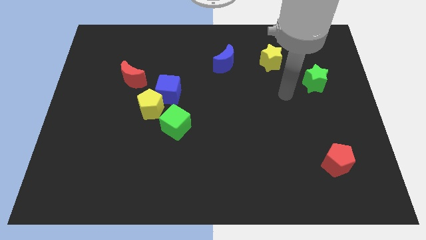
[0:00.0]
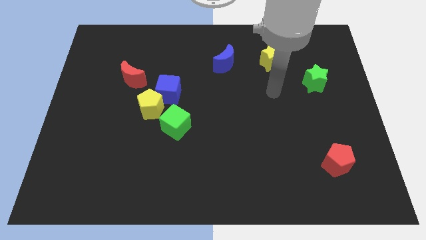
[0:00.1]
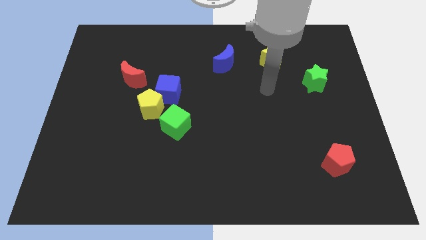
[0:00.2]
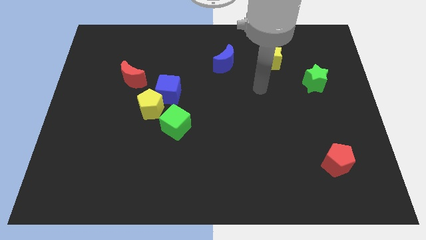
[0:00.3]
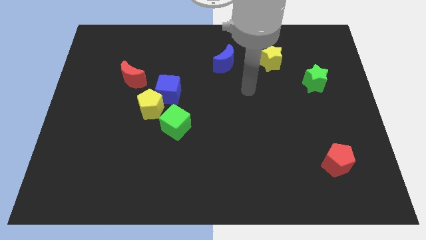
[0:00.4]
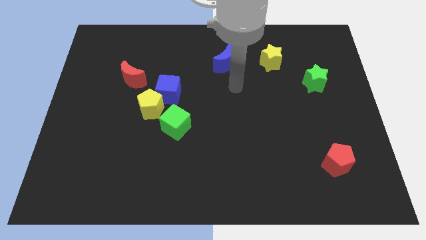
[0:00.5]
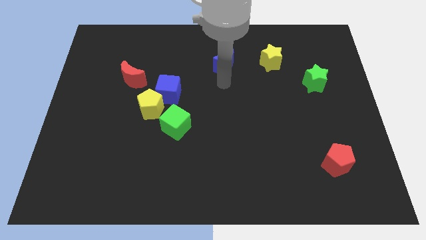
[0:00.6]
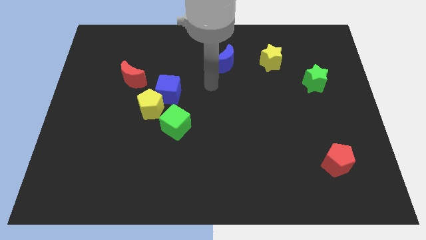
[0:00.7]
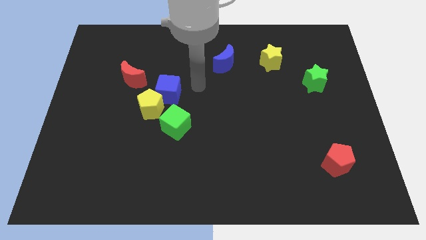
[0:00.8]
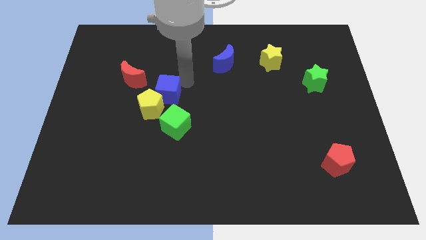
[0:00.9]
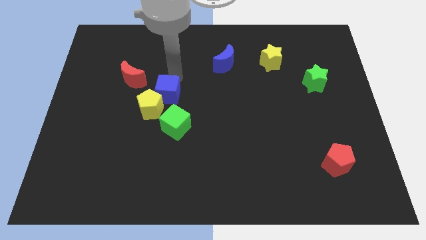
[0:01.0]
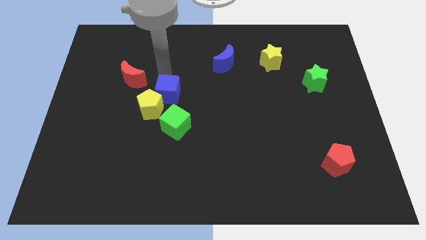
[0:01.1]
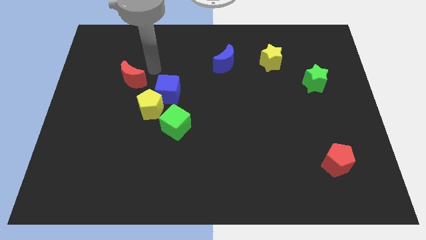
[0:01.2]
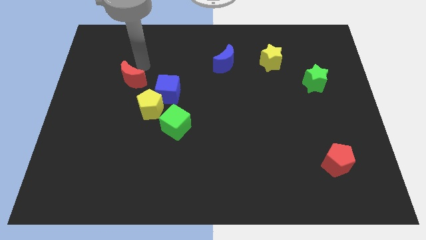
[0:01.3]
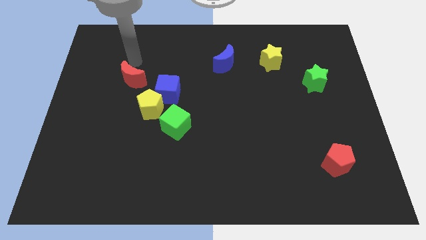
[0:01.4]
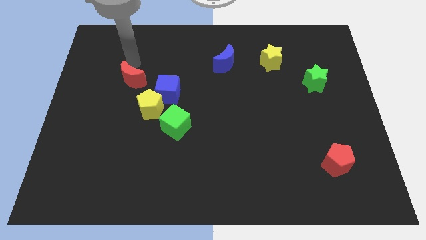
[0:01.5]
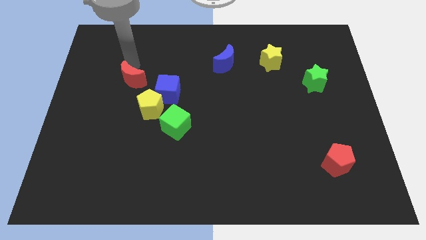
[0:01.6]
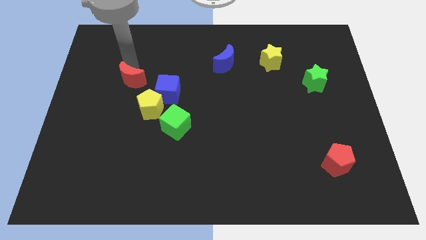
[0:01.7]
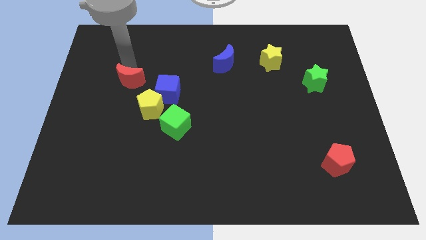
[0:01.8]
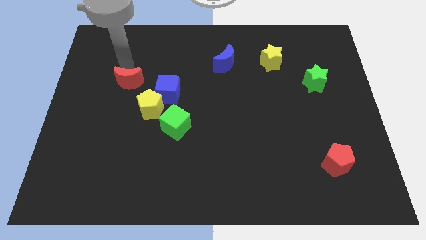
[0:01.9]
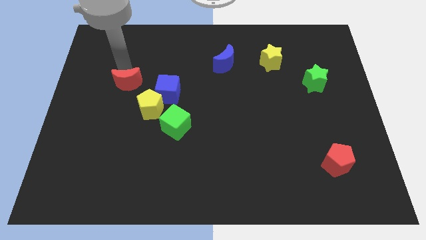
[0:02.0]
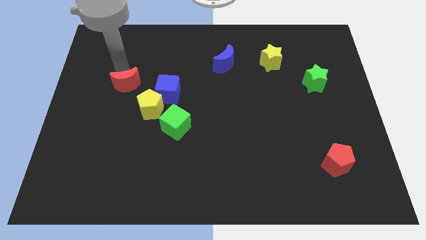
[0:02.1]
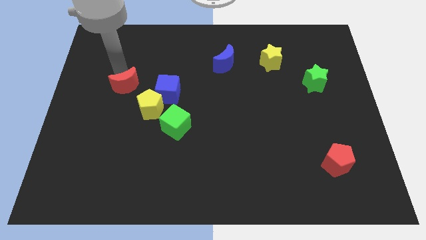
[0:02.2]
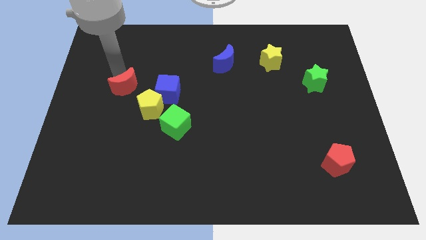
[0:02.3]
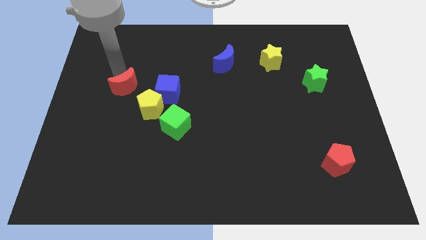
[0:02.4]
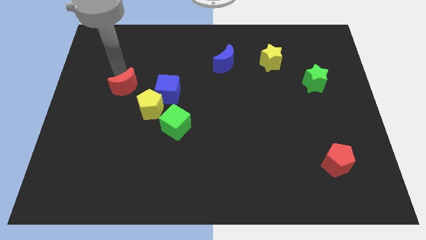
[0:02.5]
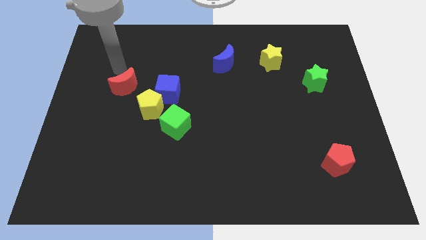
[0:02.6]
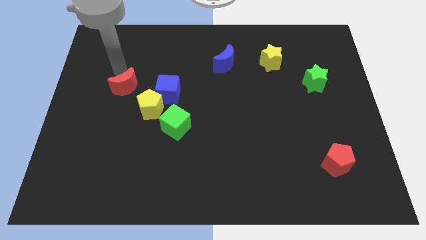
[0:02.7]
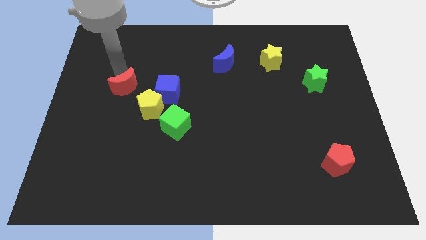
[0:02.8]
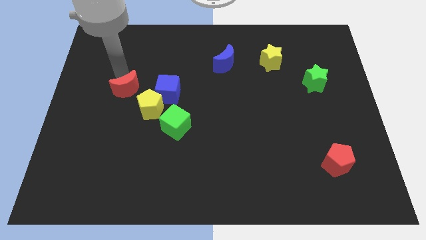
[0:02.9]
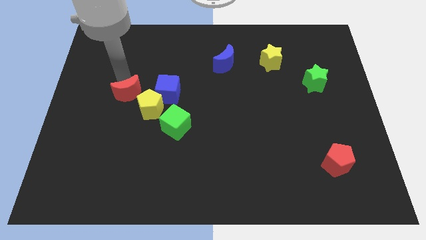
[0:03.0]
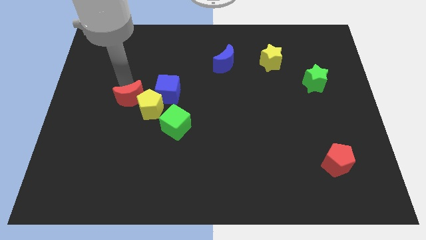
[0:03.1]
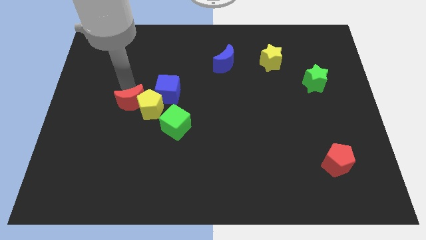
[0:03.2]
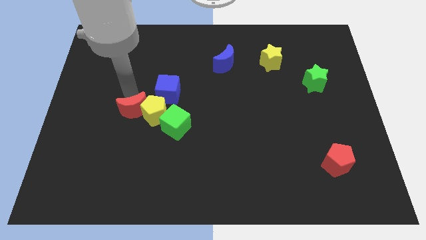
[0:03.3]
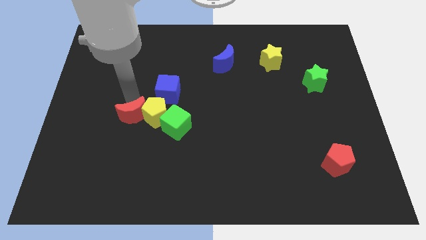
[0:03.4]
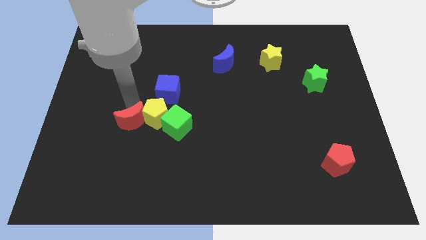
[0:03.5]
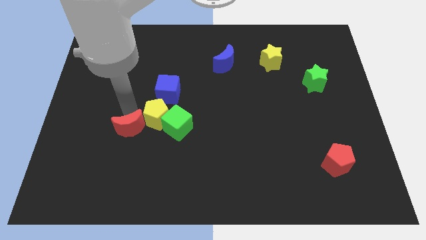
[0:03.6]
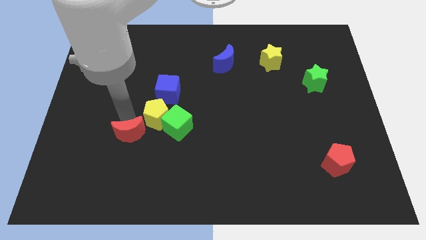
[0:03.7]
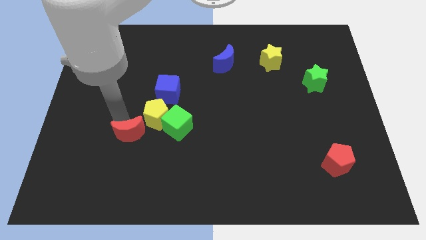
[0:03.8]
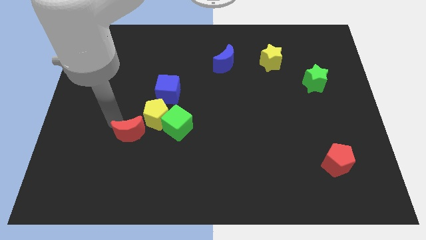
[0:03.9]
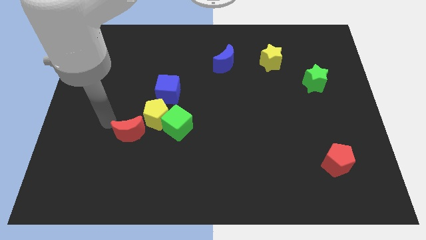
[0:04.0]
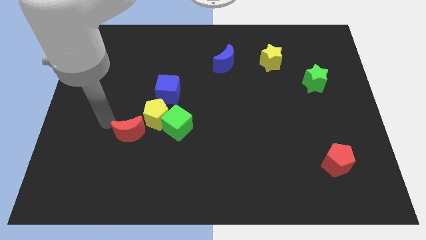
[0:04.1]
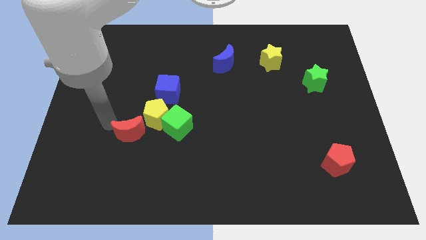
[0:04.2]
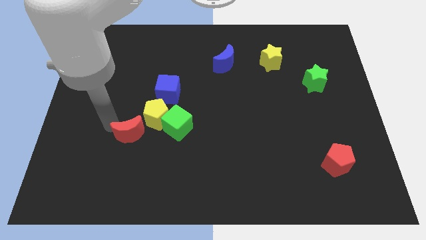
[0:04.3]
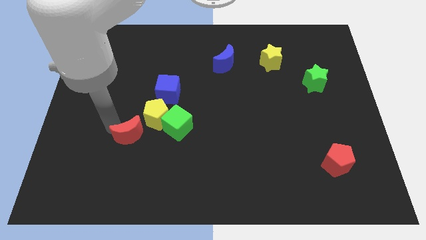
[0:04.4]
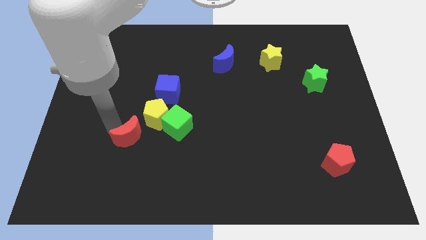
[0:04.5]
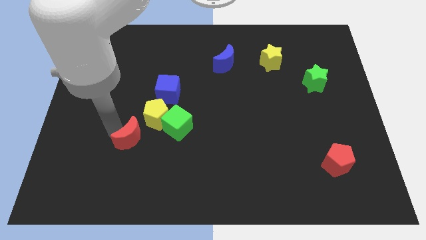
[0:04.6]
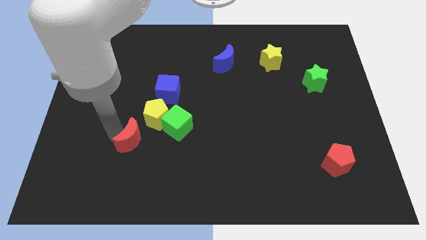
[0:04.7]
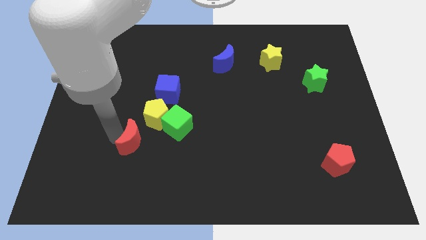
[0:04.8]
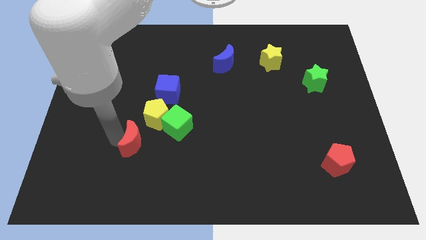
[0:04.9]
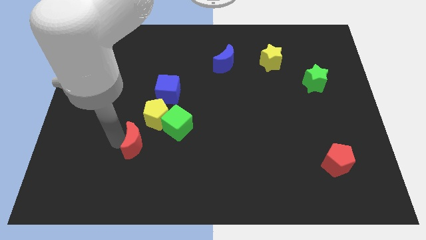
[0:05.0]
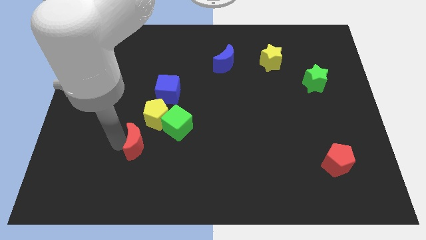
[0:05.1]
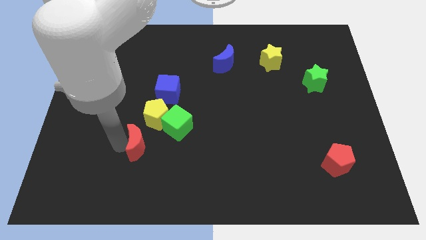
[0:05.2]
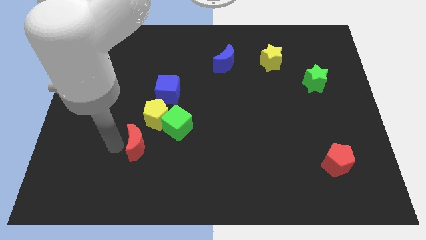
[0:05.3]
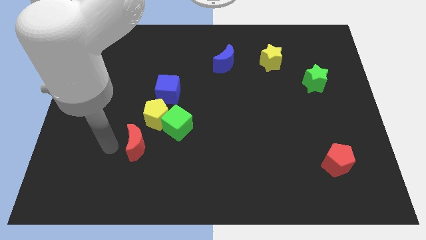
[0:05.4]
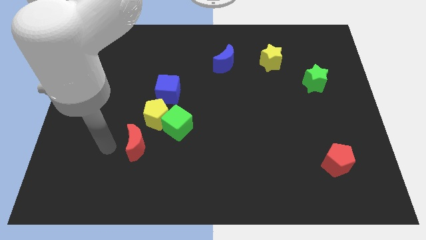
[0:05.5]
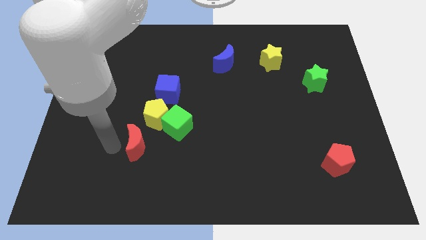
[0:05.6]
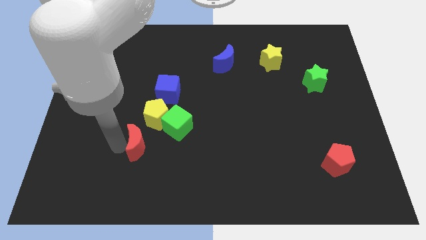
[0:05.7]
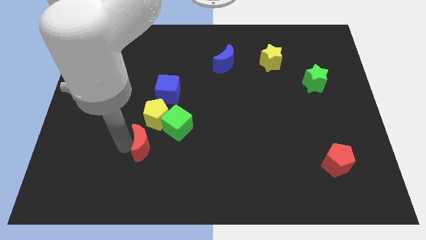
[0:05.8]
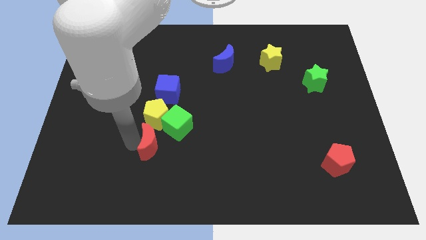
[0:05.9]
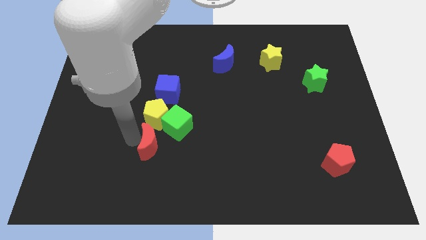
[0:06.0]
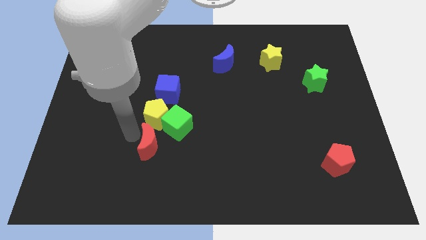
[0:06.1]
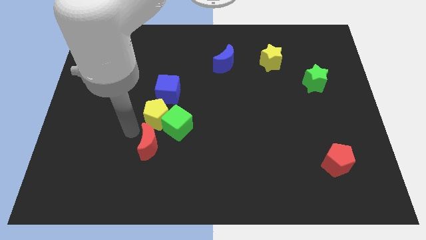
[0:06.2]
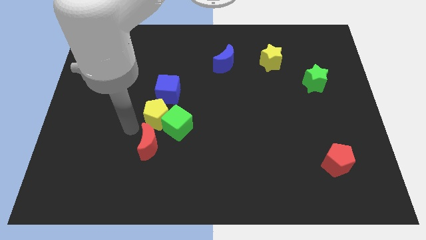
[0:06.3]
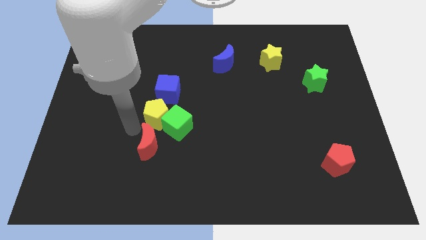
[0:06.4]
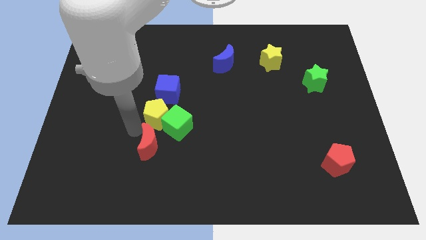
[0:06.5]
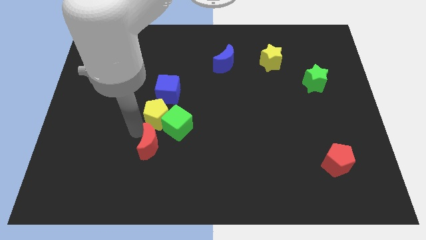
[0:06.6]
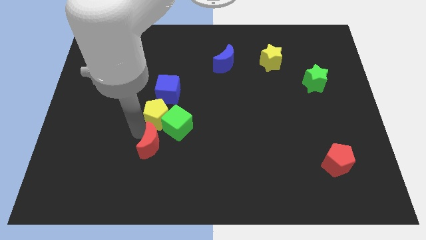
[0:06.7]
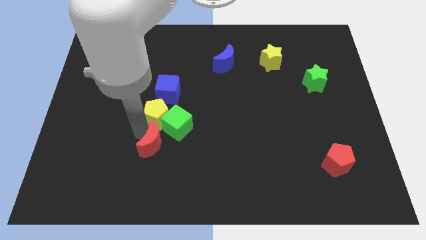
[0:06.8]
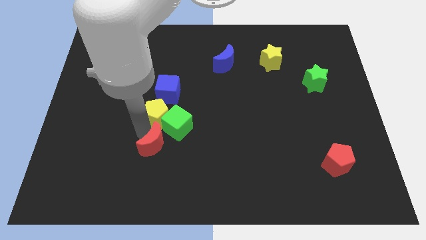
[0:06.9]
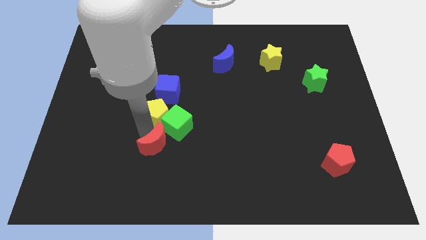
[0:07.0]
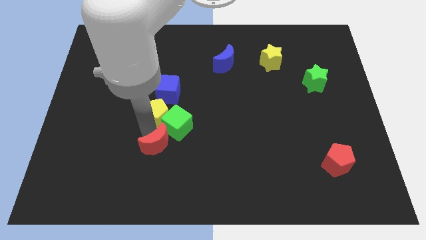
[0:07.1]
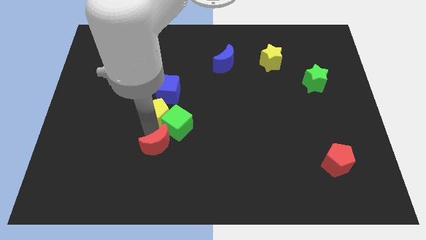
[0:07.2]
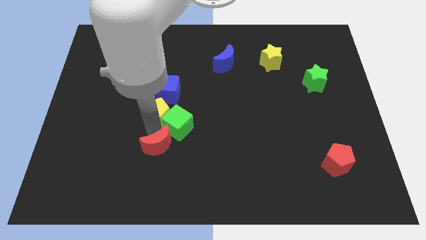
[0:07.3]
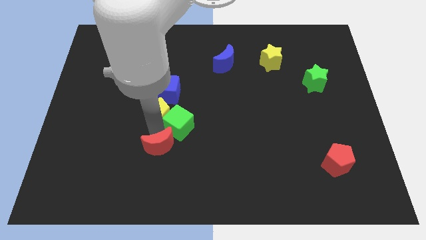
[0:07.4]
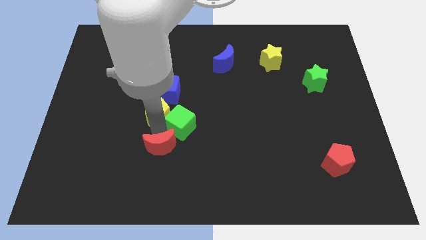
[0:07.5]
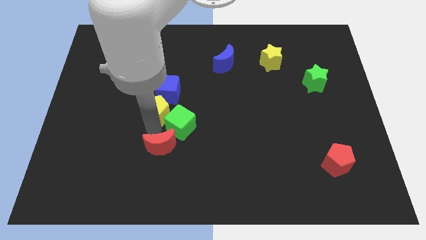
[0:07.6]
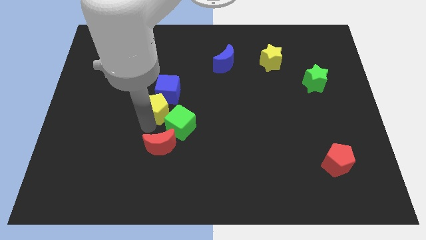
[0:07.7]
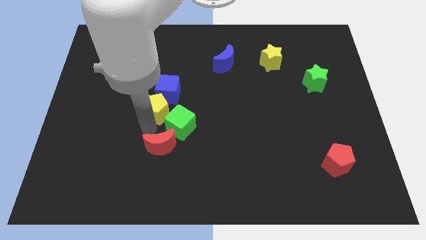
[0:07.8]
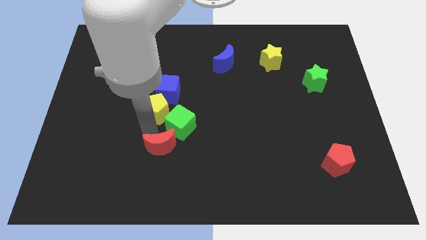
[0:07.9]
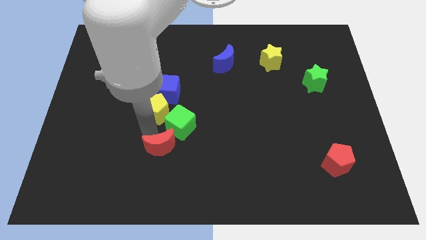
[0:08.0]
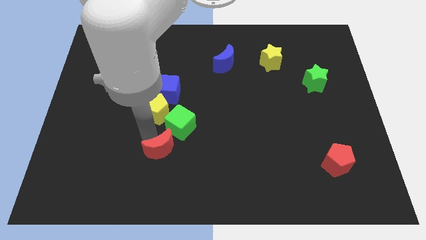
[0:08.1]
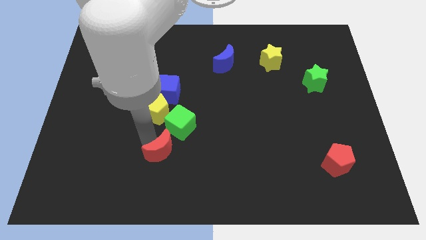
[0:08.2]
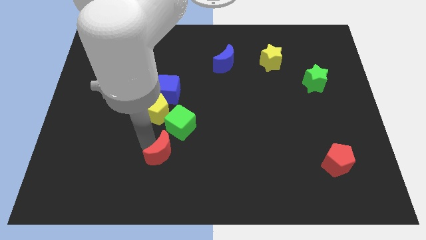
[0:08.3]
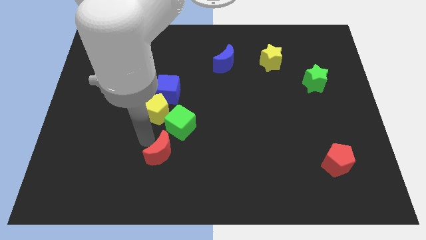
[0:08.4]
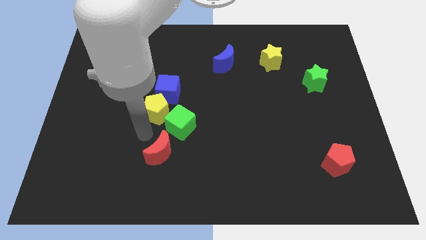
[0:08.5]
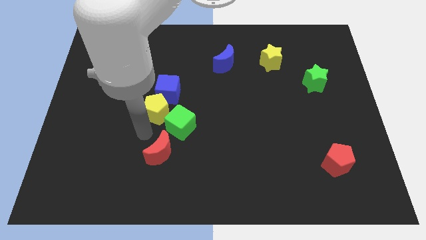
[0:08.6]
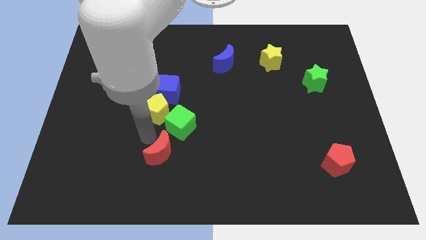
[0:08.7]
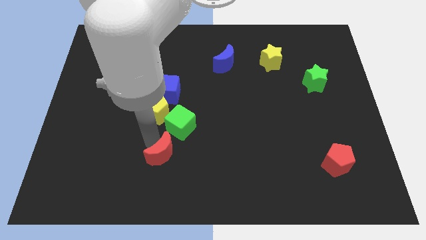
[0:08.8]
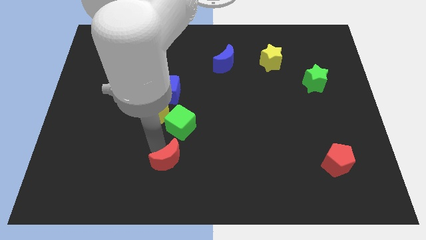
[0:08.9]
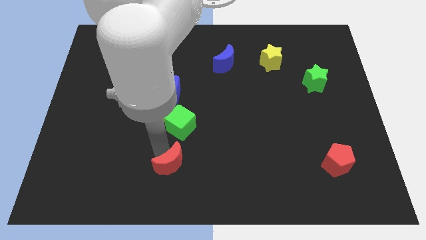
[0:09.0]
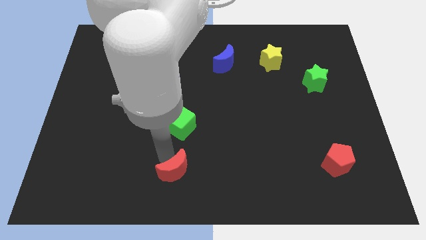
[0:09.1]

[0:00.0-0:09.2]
move the red moon to the bottom
